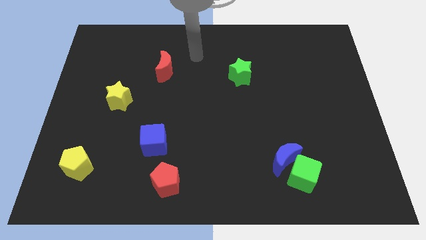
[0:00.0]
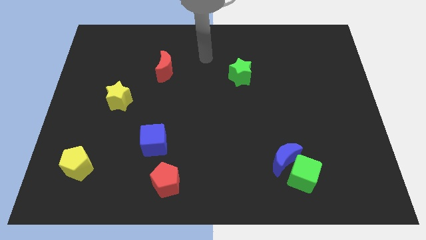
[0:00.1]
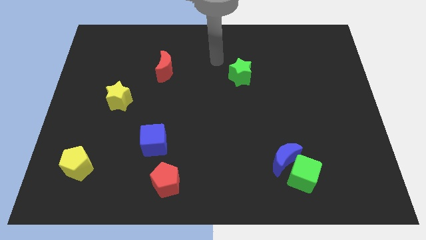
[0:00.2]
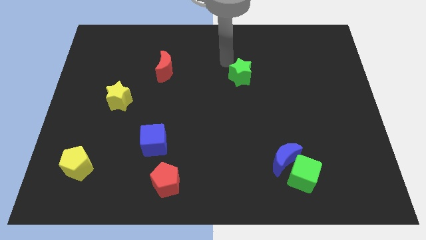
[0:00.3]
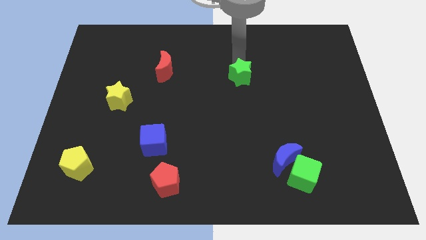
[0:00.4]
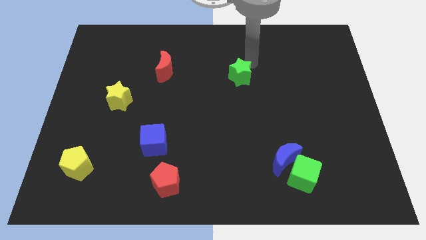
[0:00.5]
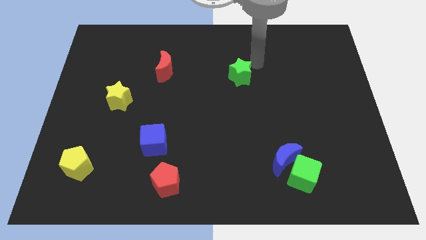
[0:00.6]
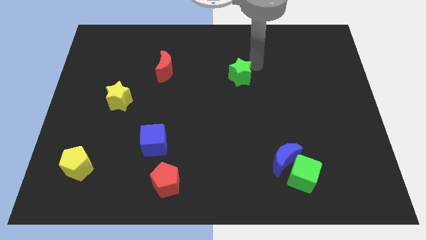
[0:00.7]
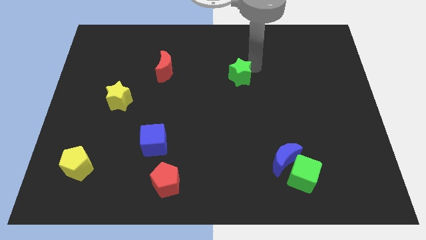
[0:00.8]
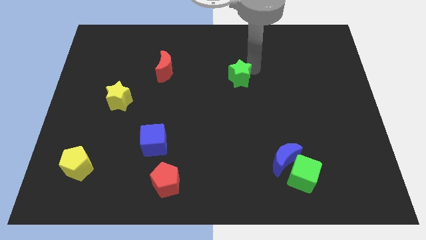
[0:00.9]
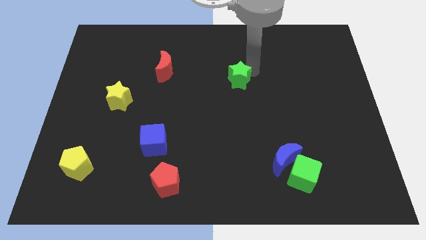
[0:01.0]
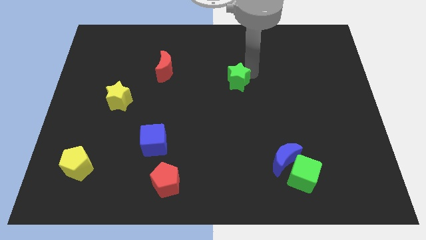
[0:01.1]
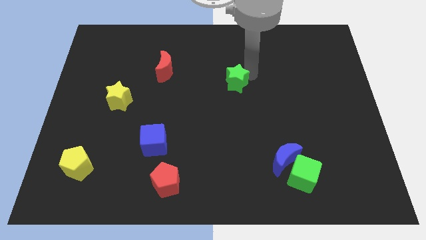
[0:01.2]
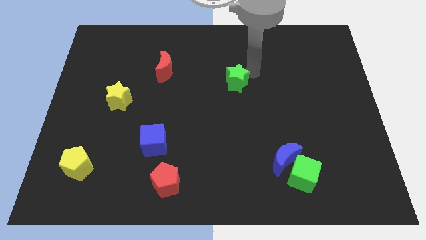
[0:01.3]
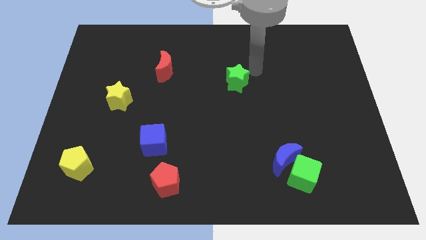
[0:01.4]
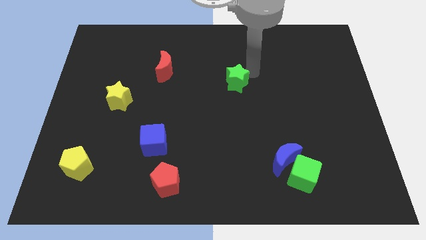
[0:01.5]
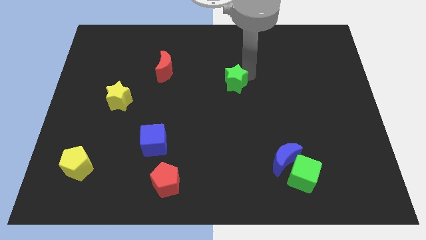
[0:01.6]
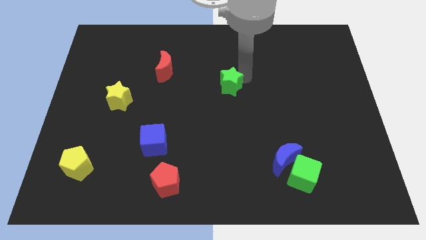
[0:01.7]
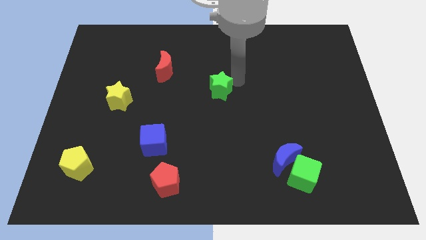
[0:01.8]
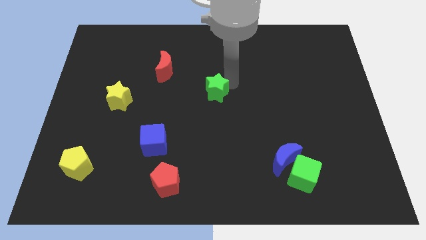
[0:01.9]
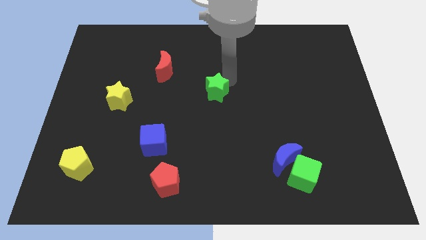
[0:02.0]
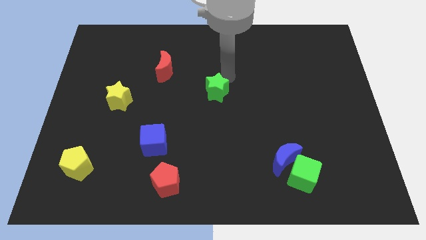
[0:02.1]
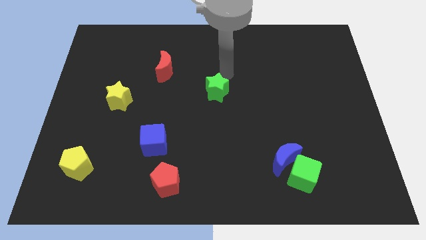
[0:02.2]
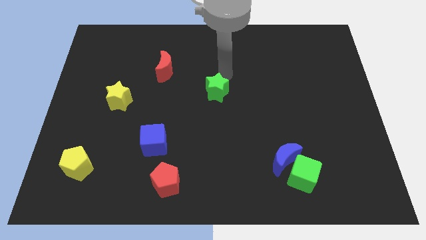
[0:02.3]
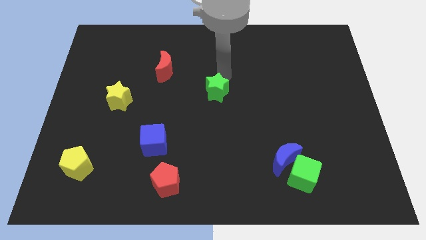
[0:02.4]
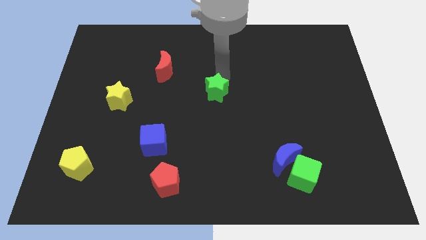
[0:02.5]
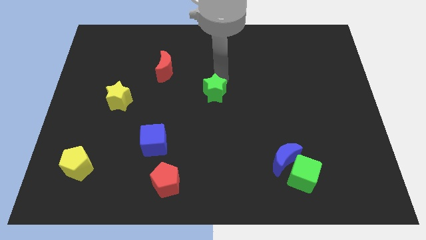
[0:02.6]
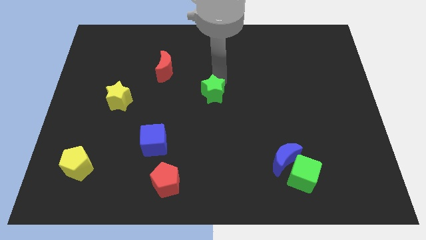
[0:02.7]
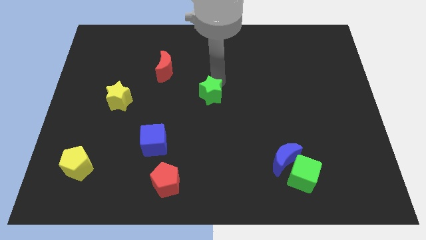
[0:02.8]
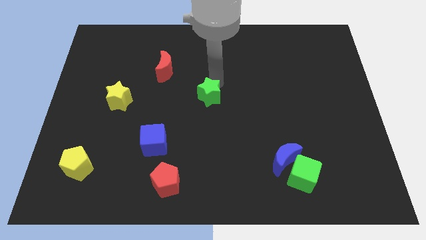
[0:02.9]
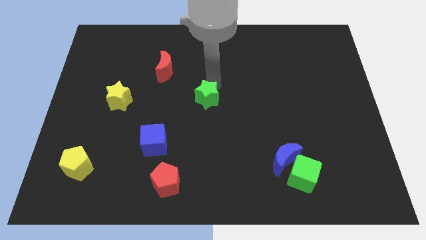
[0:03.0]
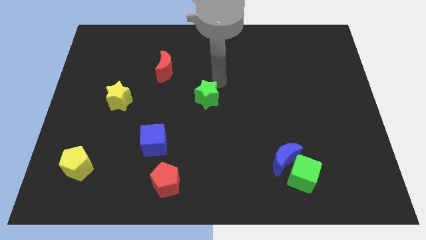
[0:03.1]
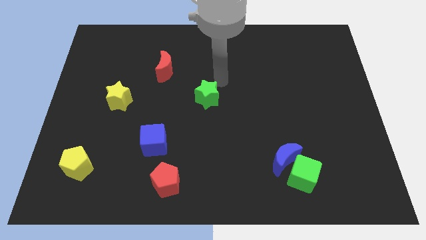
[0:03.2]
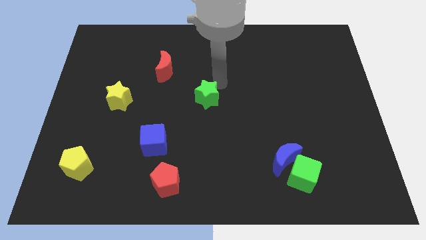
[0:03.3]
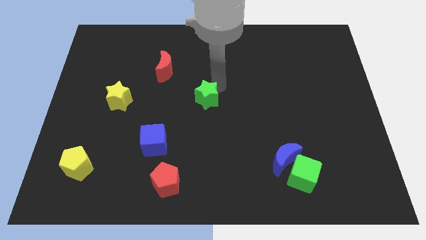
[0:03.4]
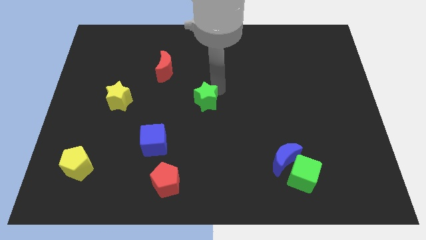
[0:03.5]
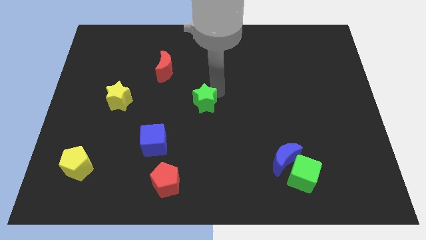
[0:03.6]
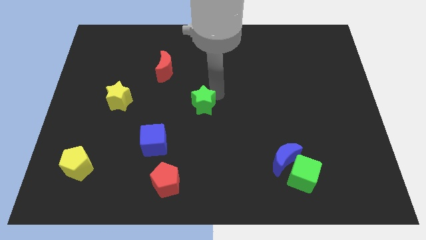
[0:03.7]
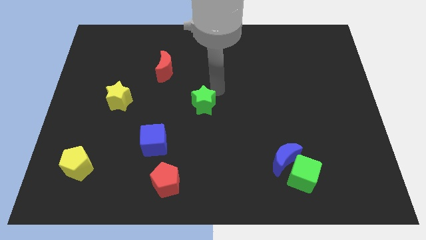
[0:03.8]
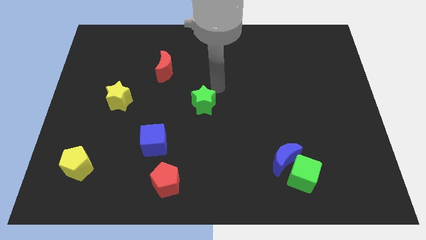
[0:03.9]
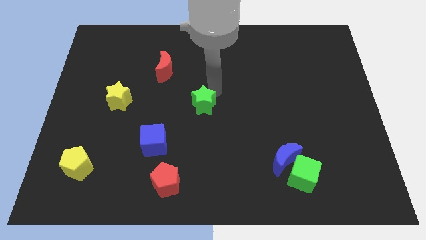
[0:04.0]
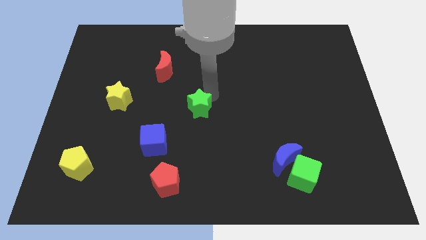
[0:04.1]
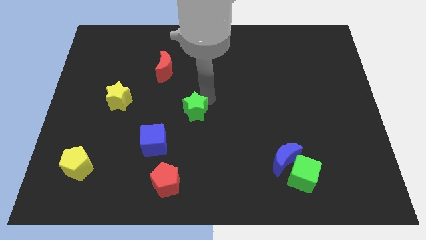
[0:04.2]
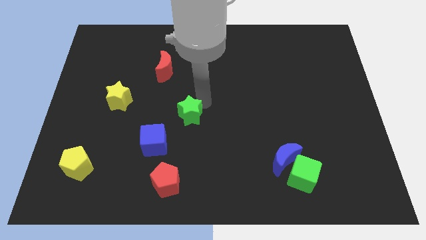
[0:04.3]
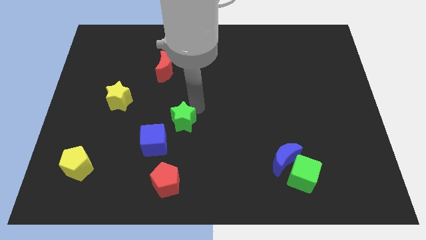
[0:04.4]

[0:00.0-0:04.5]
slide the green star down and left

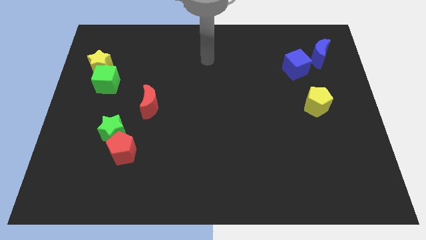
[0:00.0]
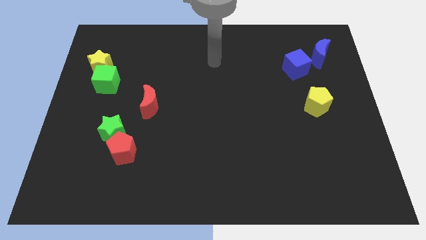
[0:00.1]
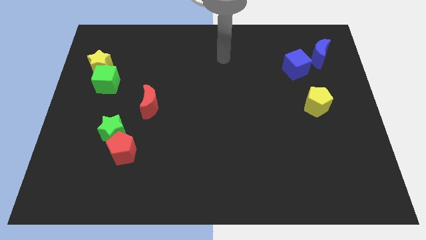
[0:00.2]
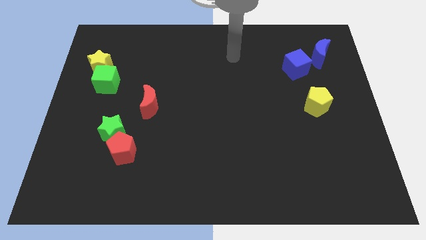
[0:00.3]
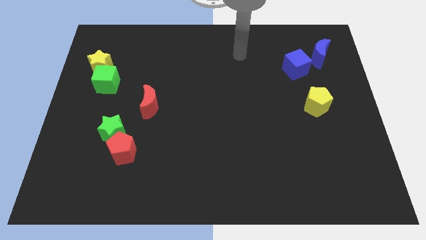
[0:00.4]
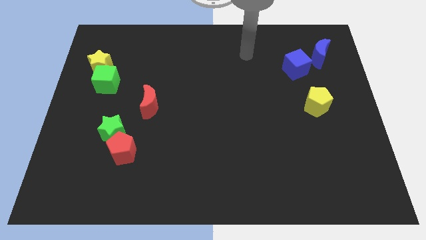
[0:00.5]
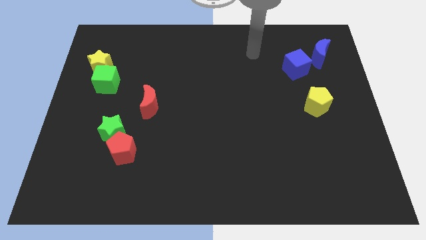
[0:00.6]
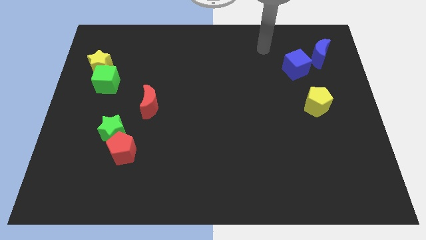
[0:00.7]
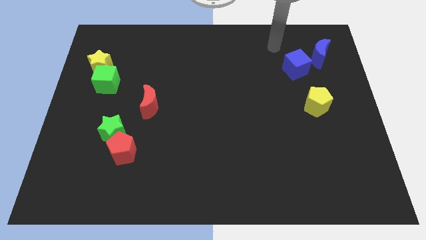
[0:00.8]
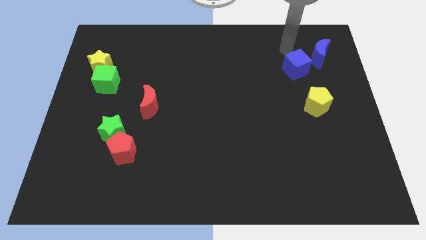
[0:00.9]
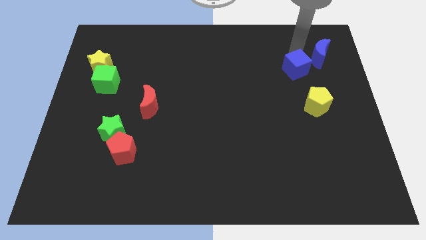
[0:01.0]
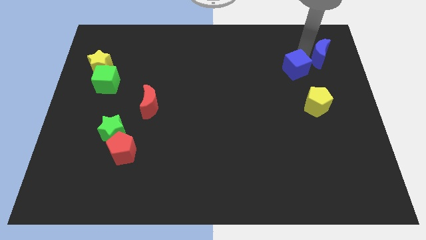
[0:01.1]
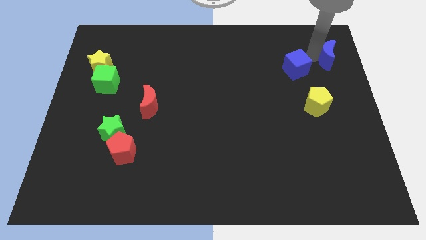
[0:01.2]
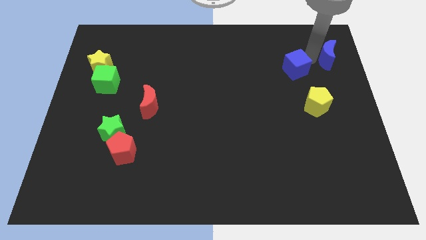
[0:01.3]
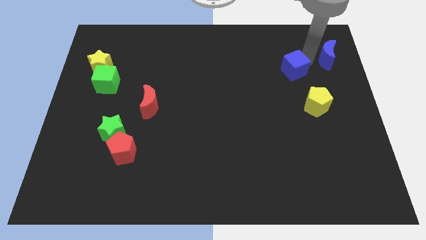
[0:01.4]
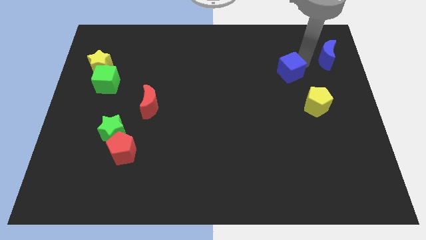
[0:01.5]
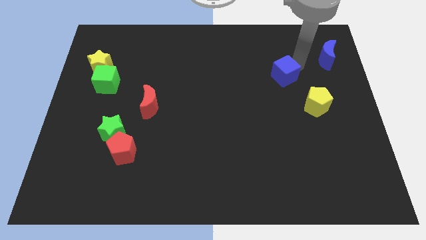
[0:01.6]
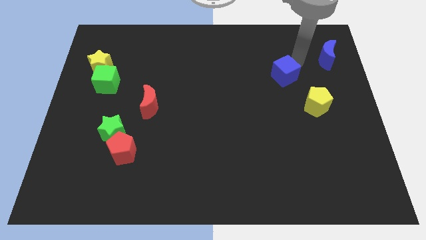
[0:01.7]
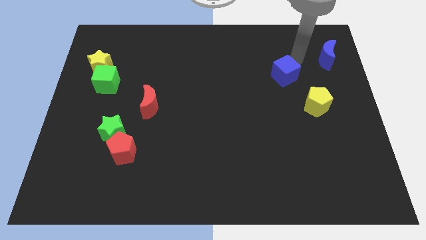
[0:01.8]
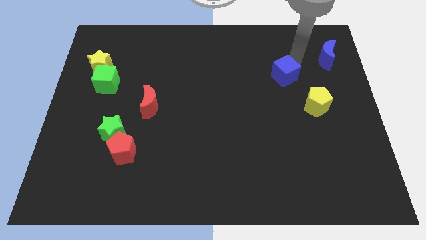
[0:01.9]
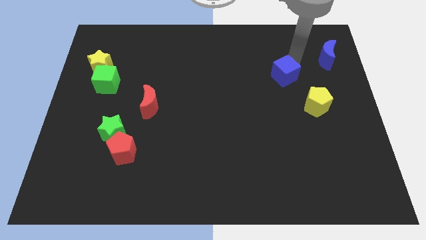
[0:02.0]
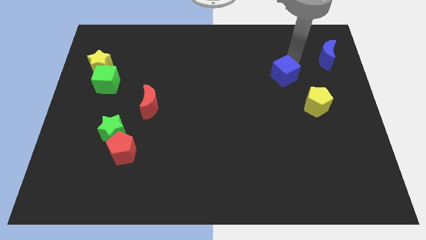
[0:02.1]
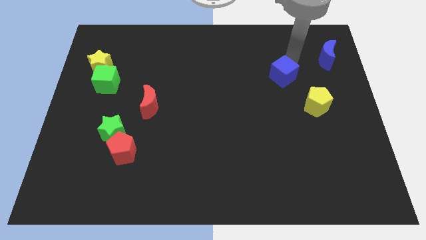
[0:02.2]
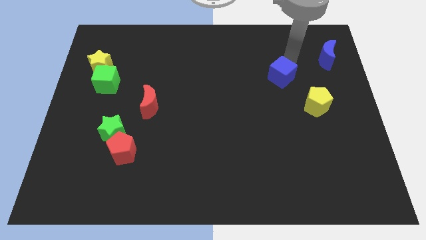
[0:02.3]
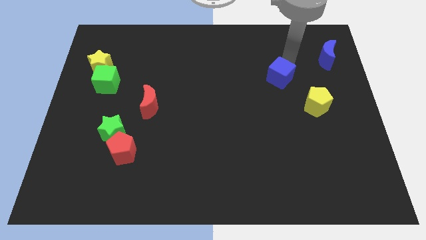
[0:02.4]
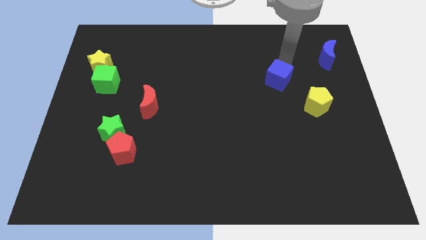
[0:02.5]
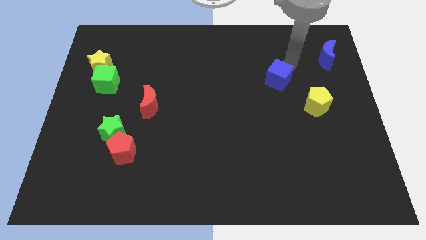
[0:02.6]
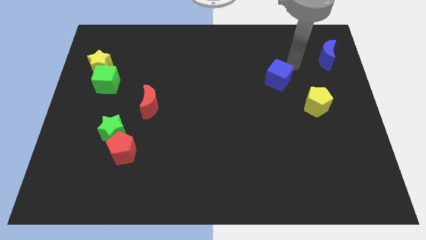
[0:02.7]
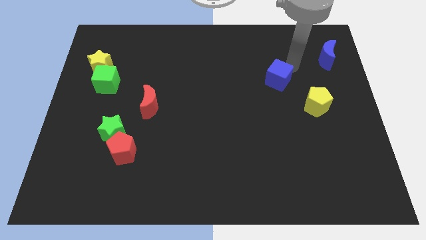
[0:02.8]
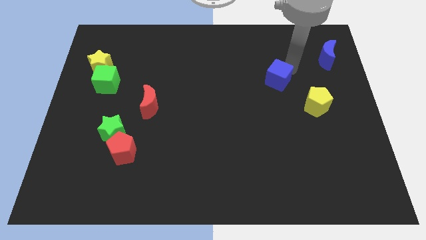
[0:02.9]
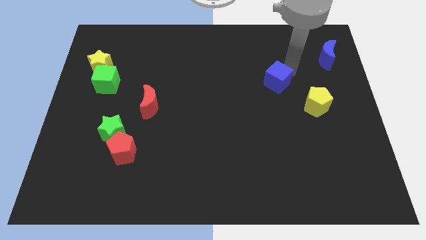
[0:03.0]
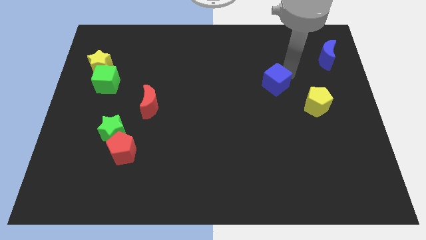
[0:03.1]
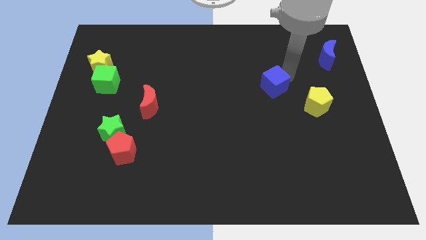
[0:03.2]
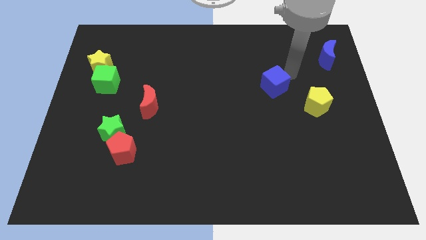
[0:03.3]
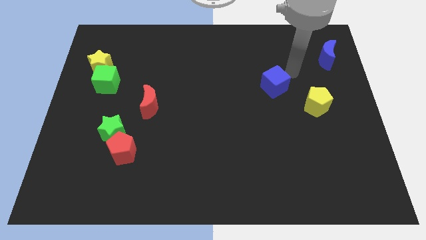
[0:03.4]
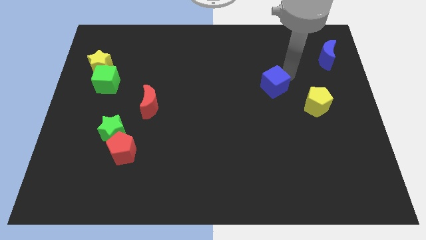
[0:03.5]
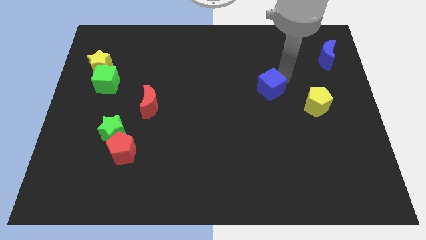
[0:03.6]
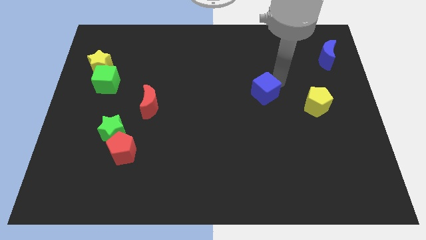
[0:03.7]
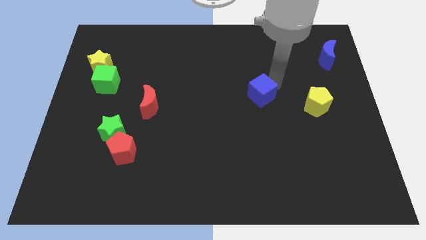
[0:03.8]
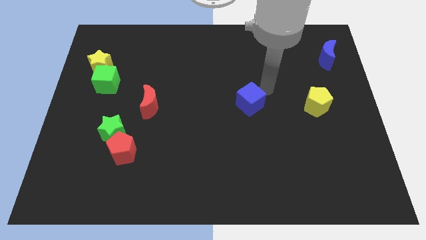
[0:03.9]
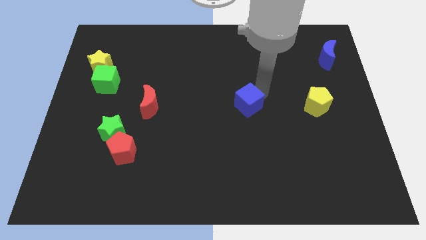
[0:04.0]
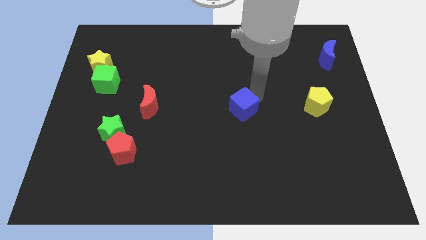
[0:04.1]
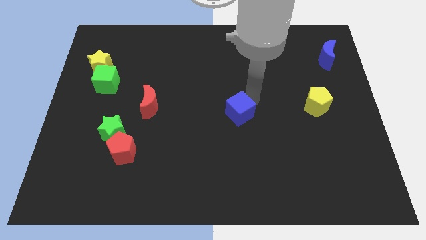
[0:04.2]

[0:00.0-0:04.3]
slide the blue cube down and then to the left
